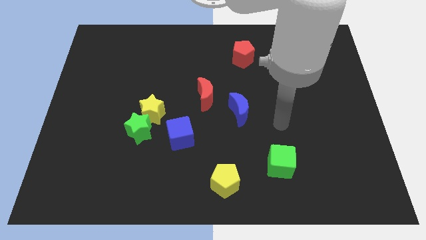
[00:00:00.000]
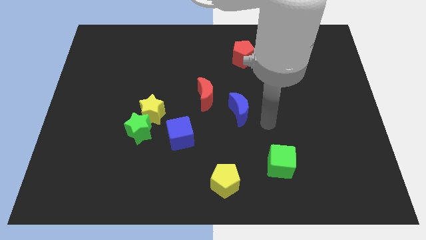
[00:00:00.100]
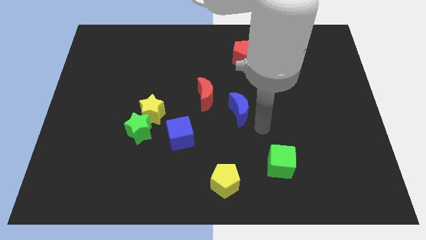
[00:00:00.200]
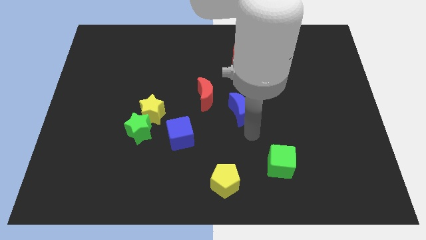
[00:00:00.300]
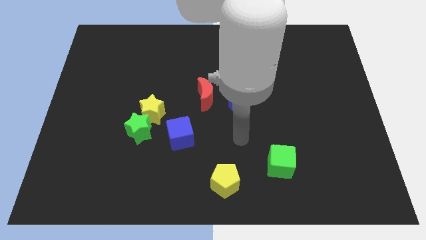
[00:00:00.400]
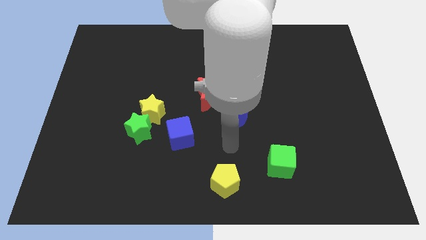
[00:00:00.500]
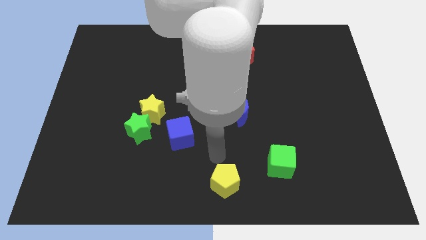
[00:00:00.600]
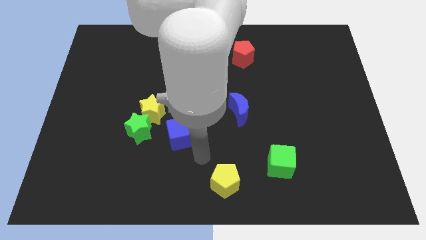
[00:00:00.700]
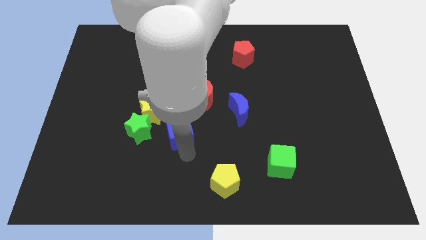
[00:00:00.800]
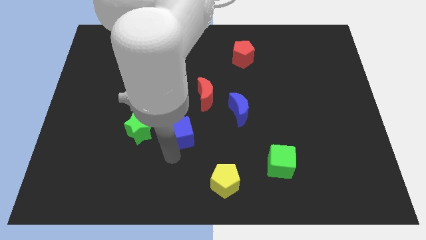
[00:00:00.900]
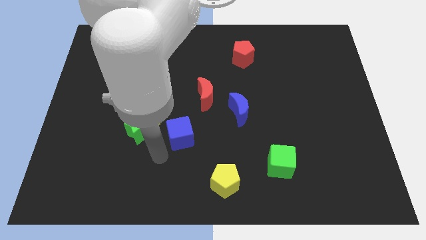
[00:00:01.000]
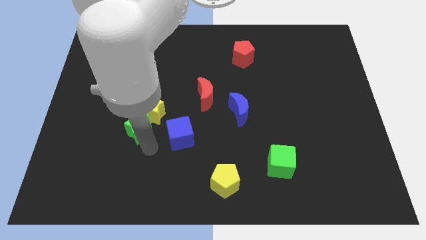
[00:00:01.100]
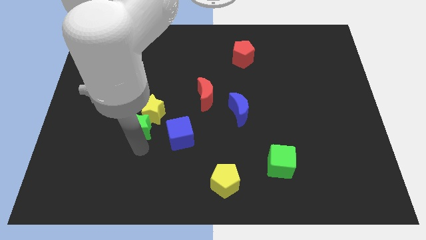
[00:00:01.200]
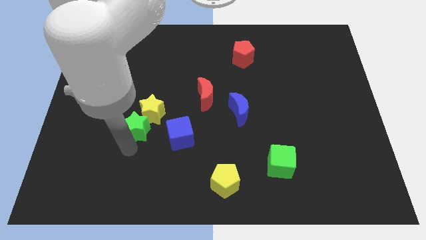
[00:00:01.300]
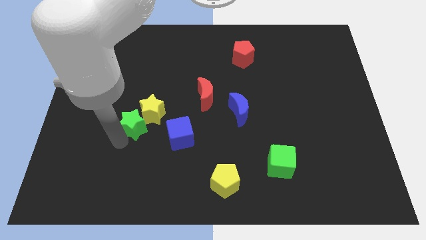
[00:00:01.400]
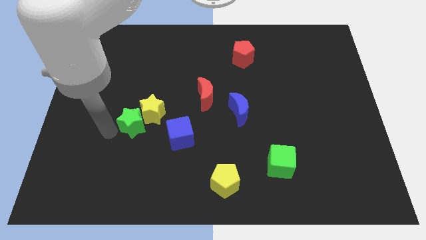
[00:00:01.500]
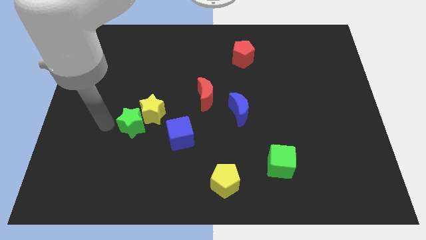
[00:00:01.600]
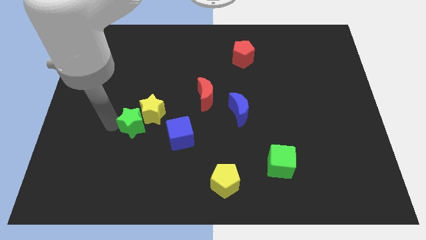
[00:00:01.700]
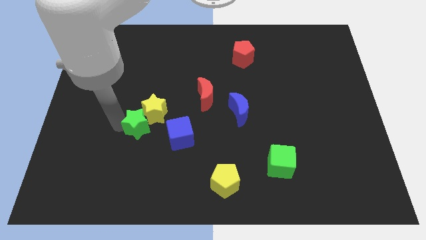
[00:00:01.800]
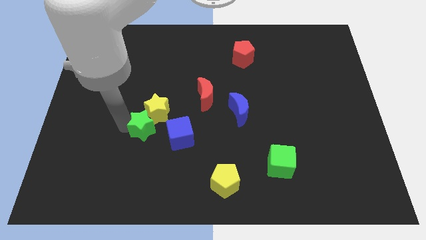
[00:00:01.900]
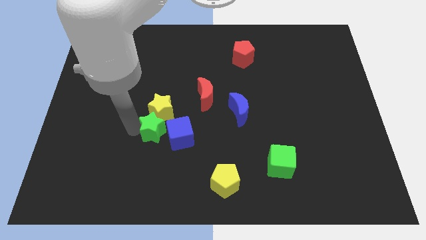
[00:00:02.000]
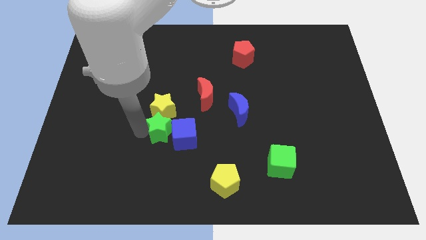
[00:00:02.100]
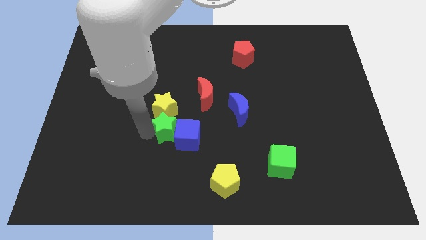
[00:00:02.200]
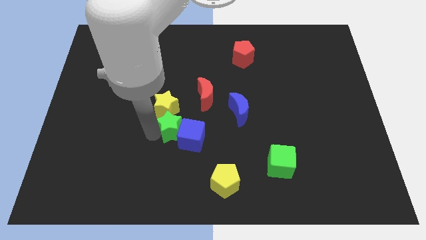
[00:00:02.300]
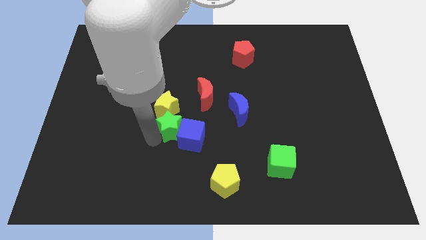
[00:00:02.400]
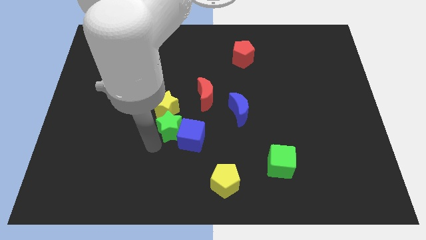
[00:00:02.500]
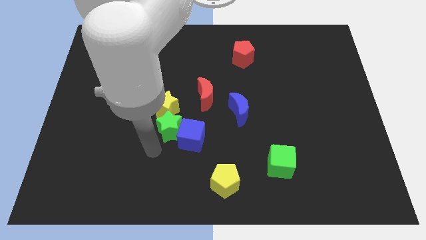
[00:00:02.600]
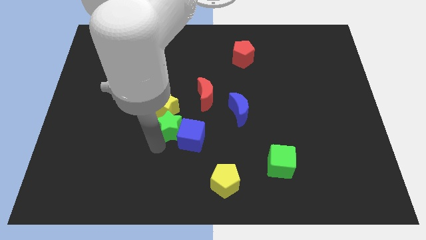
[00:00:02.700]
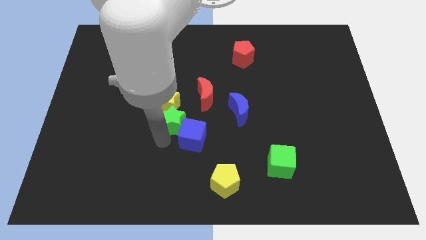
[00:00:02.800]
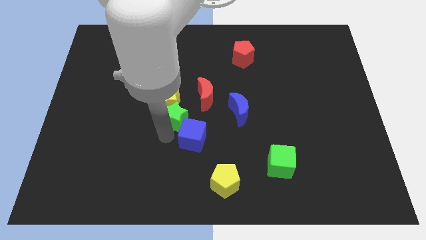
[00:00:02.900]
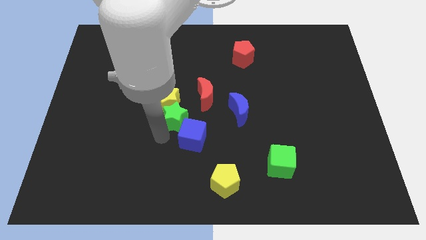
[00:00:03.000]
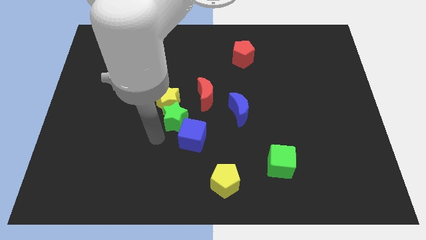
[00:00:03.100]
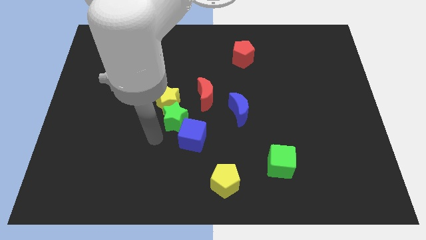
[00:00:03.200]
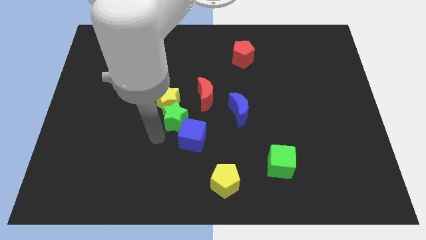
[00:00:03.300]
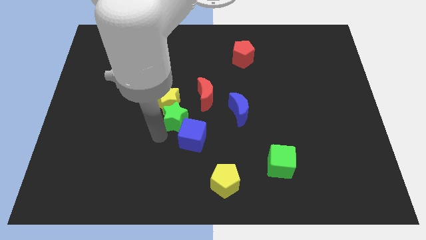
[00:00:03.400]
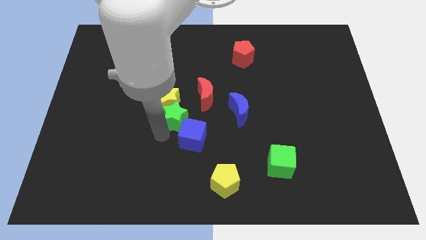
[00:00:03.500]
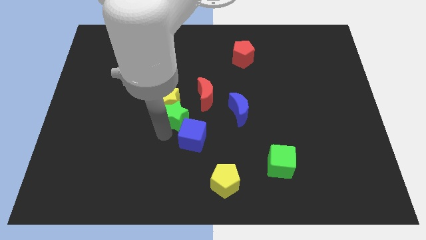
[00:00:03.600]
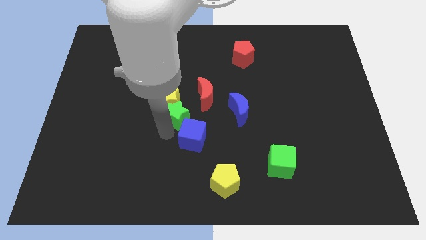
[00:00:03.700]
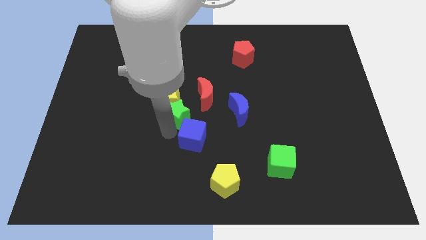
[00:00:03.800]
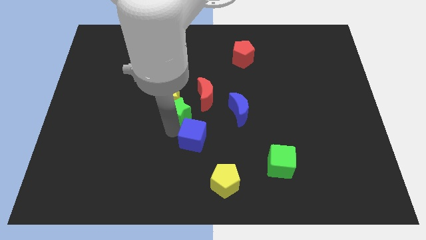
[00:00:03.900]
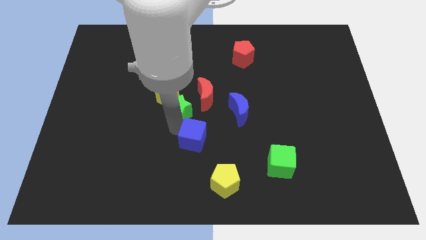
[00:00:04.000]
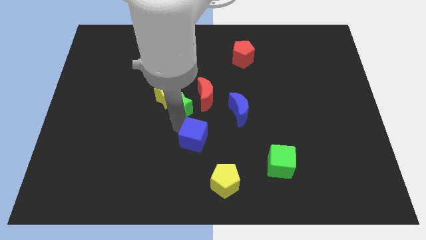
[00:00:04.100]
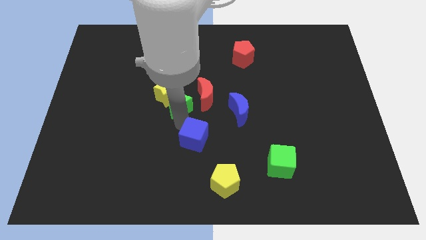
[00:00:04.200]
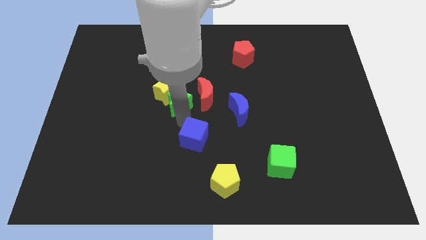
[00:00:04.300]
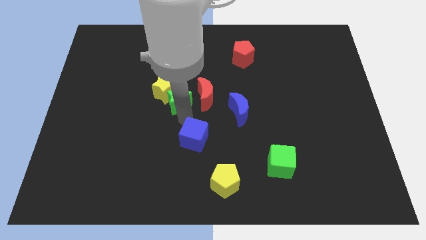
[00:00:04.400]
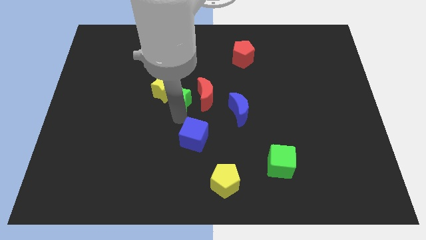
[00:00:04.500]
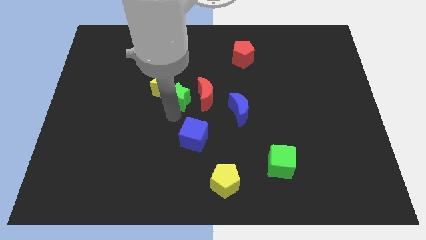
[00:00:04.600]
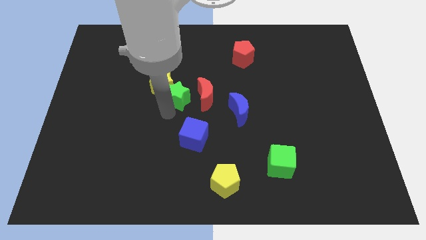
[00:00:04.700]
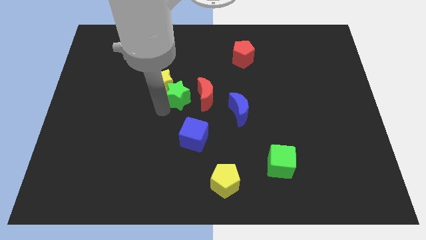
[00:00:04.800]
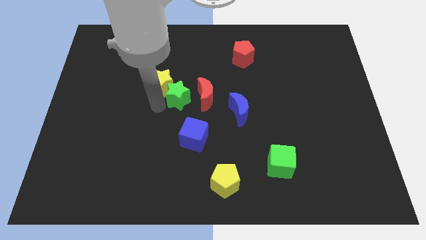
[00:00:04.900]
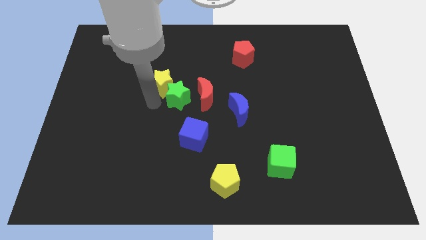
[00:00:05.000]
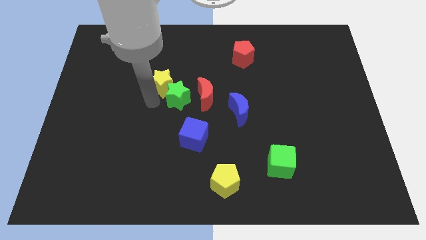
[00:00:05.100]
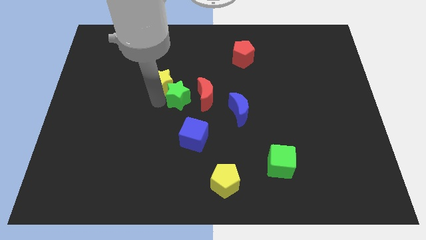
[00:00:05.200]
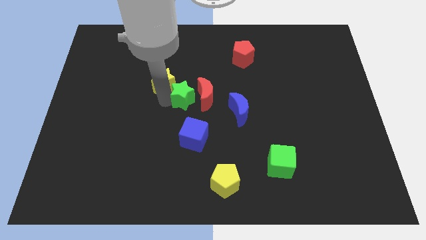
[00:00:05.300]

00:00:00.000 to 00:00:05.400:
push the green star towards the red moon

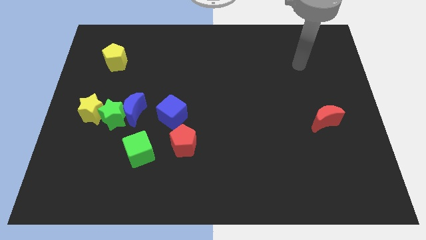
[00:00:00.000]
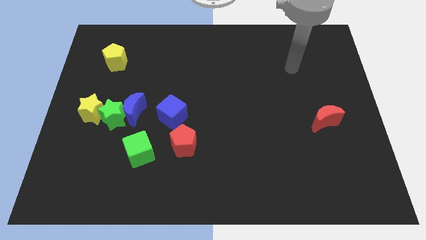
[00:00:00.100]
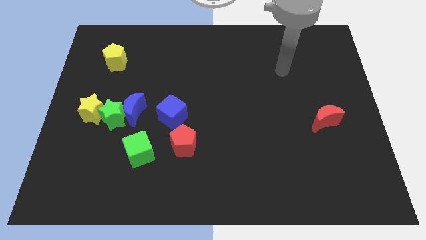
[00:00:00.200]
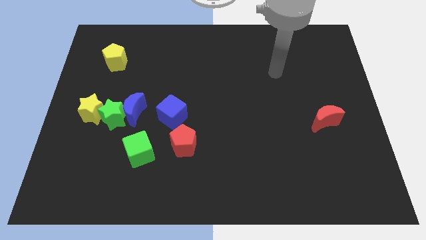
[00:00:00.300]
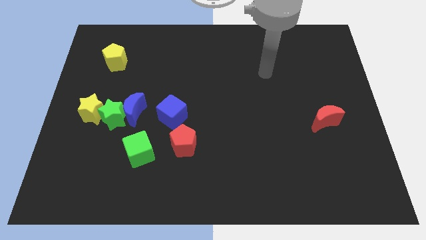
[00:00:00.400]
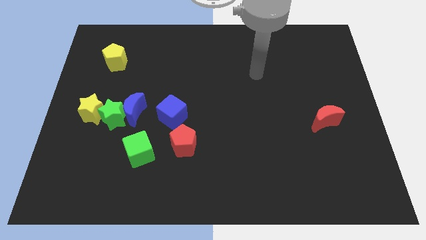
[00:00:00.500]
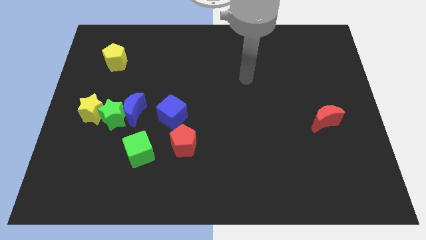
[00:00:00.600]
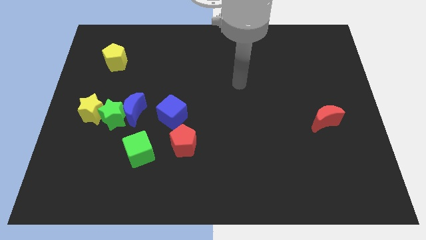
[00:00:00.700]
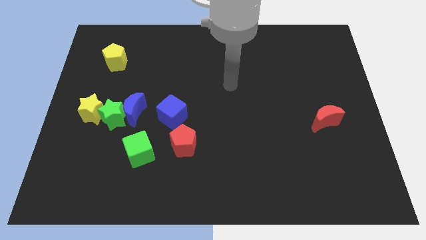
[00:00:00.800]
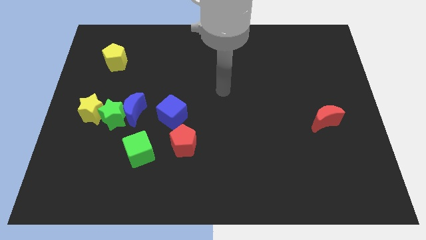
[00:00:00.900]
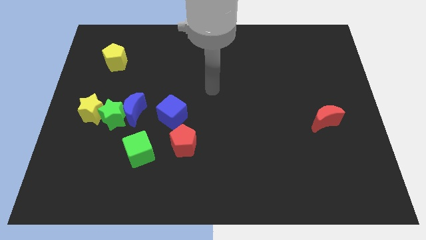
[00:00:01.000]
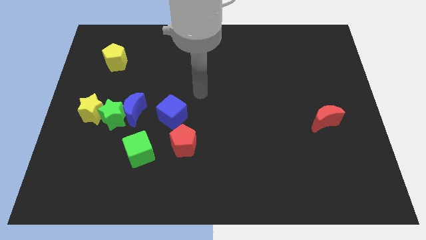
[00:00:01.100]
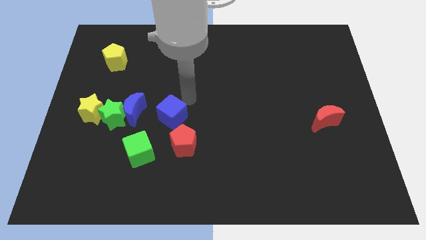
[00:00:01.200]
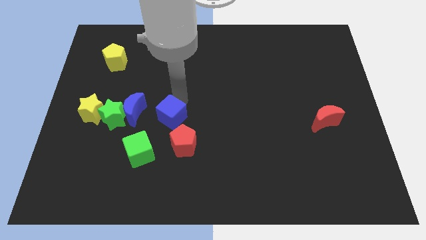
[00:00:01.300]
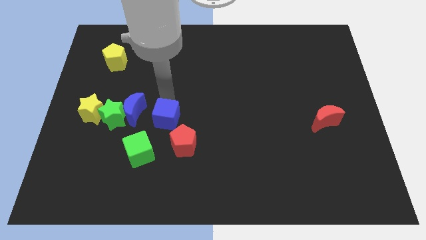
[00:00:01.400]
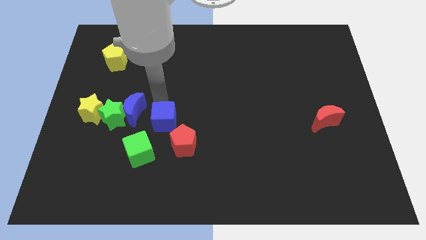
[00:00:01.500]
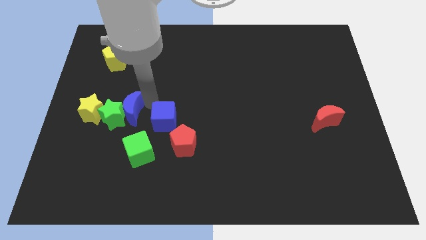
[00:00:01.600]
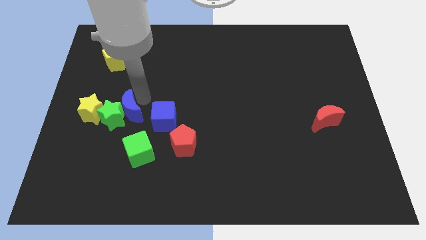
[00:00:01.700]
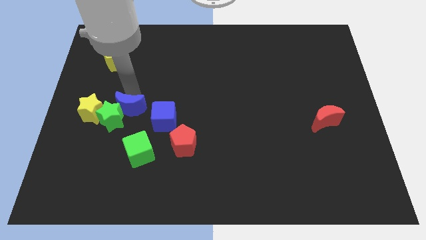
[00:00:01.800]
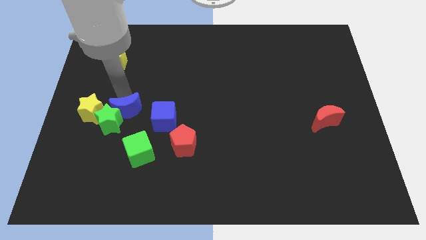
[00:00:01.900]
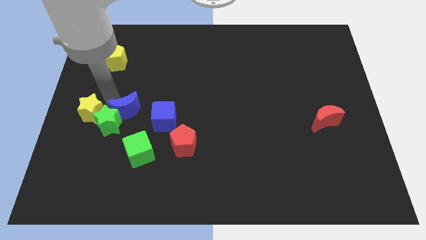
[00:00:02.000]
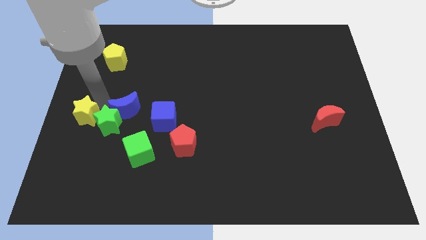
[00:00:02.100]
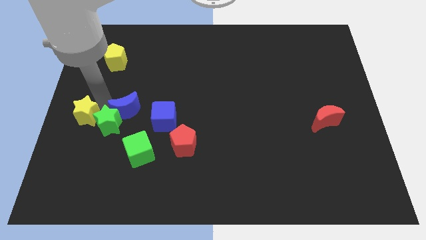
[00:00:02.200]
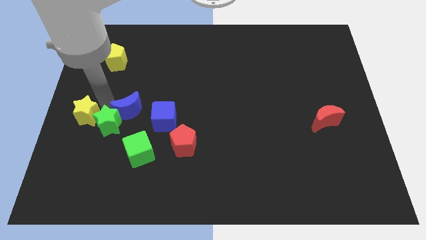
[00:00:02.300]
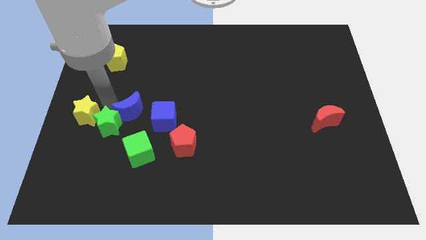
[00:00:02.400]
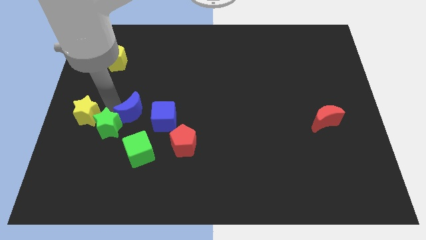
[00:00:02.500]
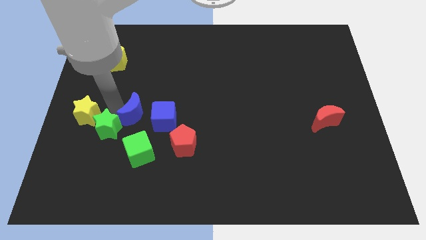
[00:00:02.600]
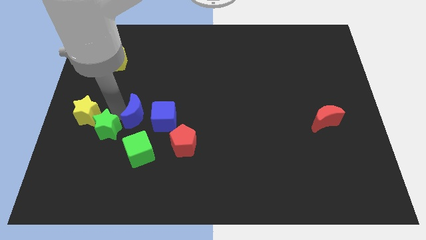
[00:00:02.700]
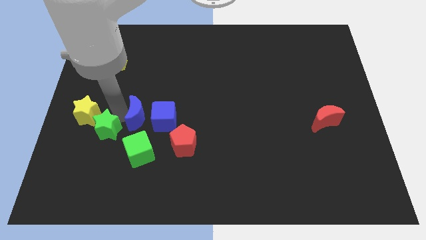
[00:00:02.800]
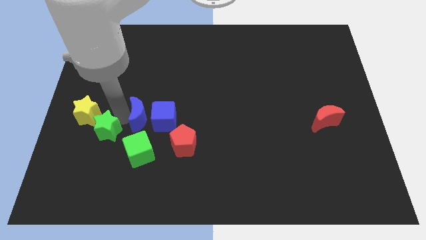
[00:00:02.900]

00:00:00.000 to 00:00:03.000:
put the blue moon next to the blue cube
